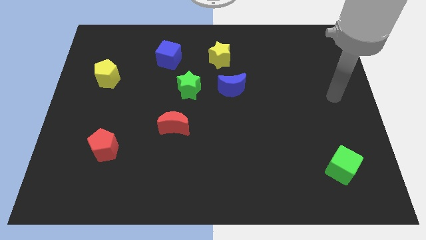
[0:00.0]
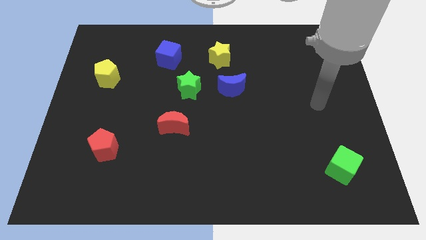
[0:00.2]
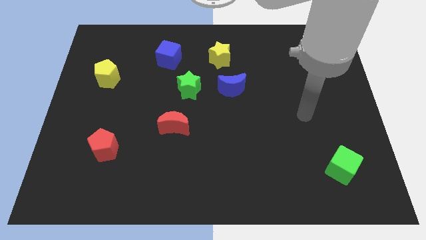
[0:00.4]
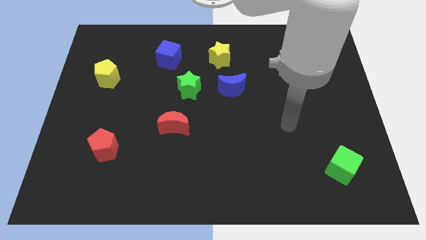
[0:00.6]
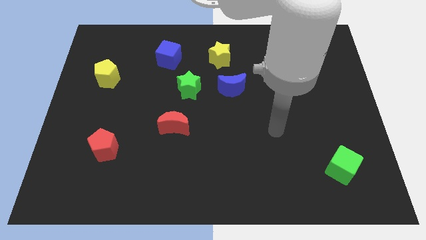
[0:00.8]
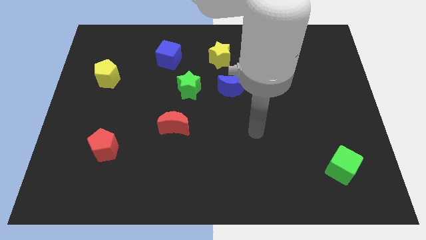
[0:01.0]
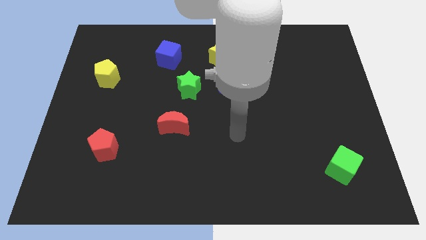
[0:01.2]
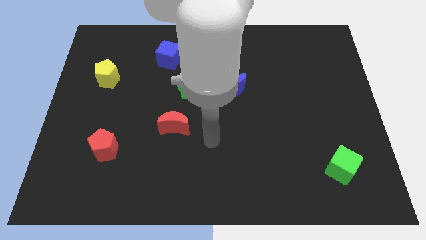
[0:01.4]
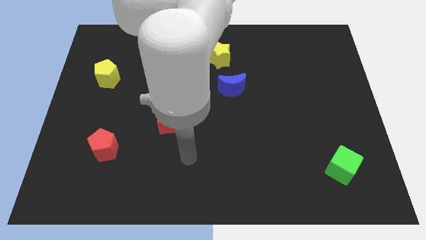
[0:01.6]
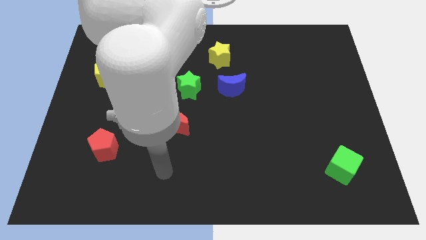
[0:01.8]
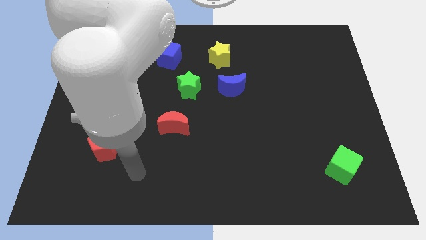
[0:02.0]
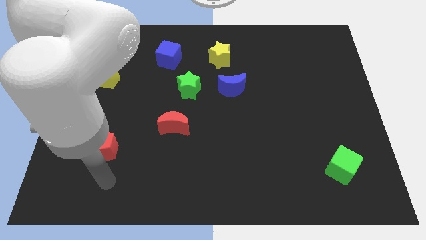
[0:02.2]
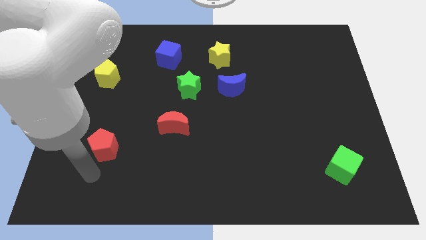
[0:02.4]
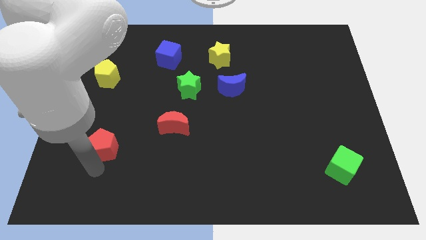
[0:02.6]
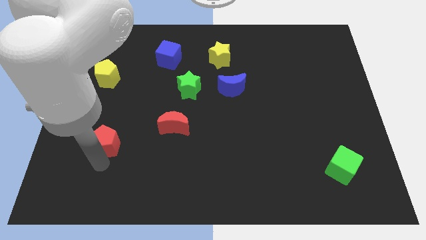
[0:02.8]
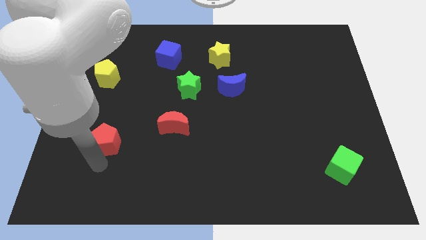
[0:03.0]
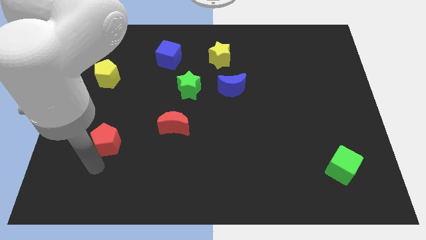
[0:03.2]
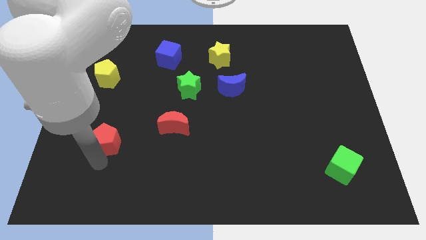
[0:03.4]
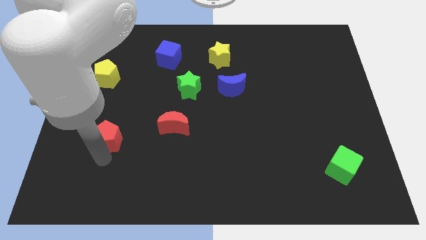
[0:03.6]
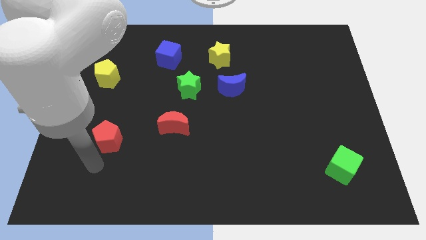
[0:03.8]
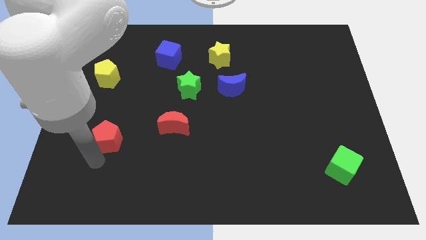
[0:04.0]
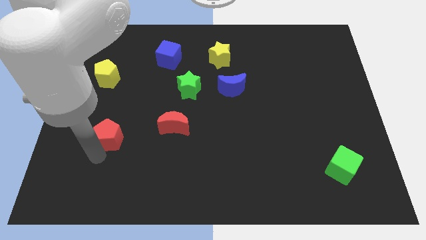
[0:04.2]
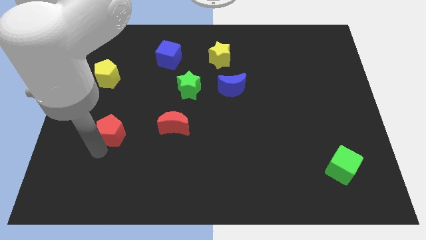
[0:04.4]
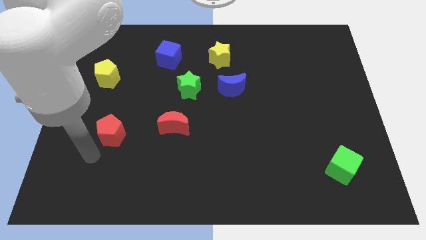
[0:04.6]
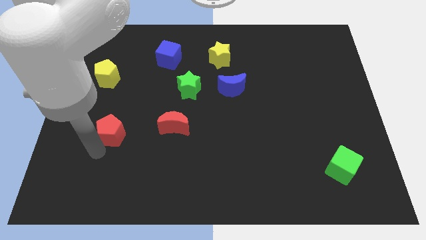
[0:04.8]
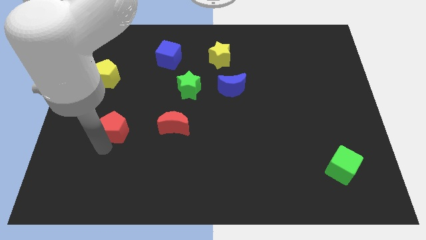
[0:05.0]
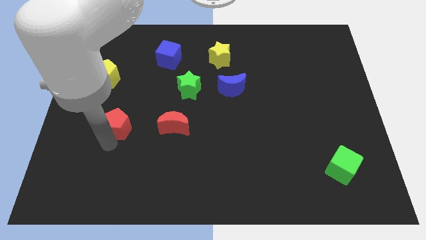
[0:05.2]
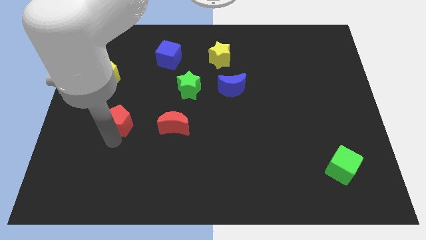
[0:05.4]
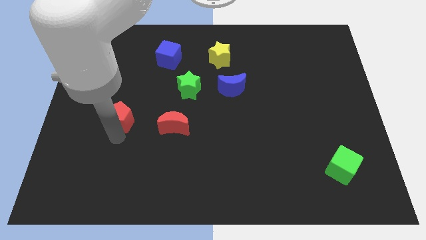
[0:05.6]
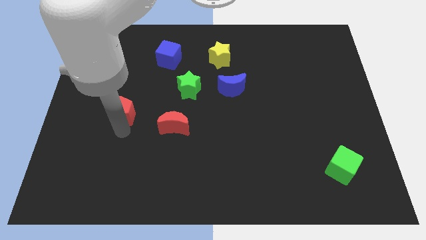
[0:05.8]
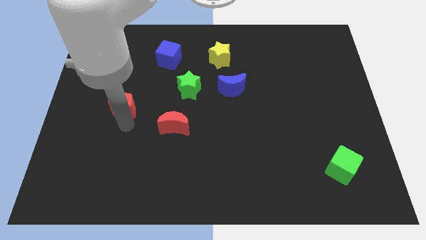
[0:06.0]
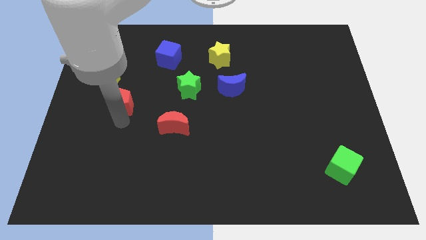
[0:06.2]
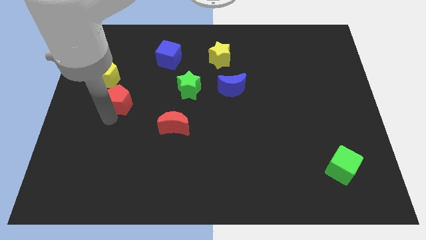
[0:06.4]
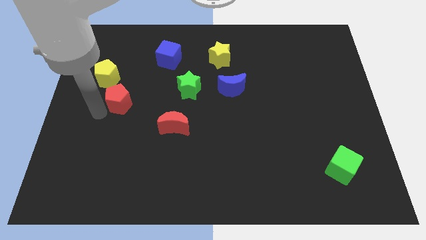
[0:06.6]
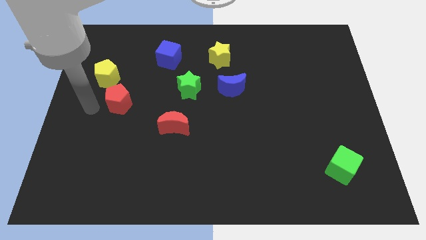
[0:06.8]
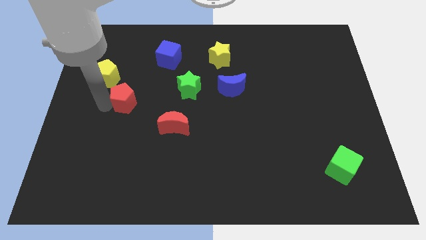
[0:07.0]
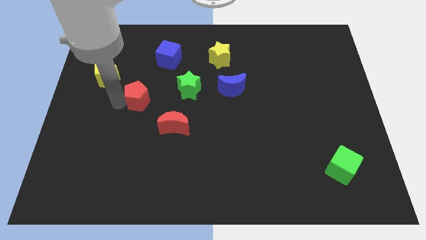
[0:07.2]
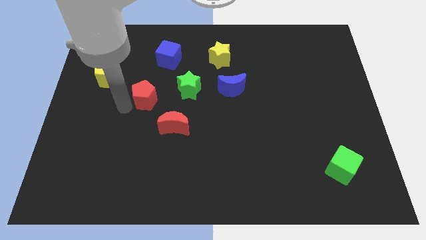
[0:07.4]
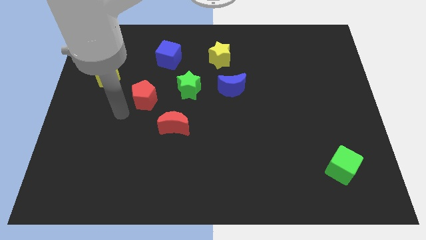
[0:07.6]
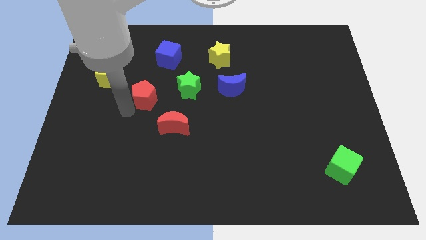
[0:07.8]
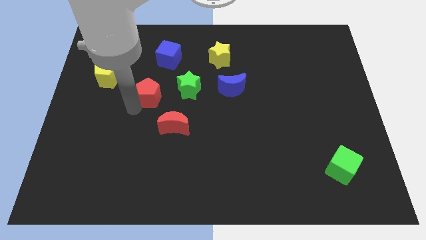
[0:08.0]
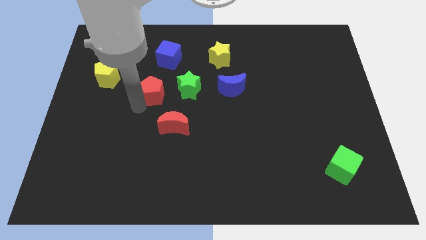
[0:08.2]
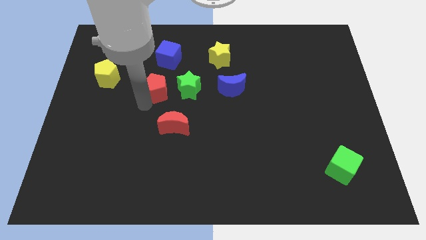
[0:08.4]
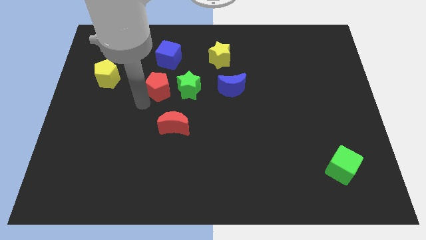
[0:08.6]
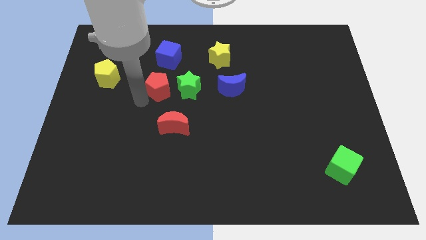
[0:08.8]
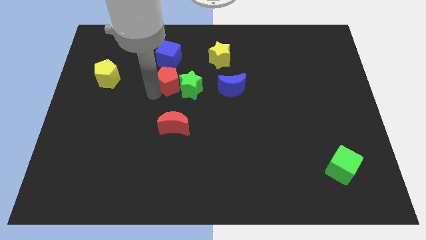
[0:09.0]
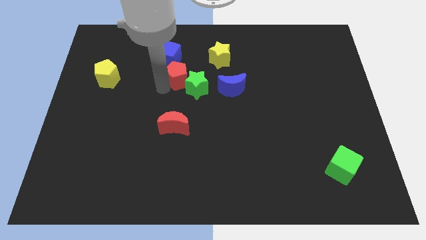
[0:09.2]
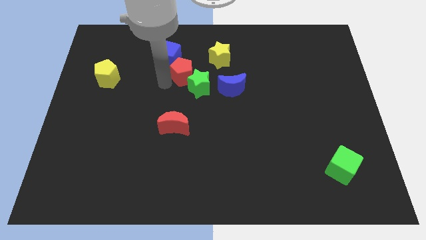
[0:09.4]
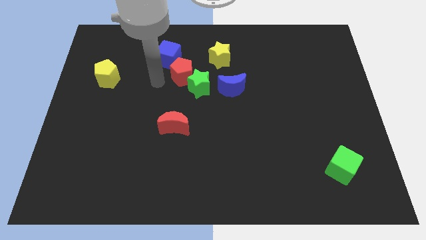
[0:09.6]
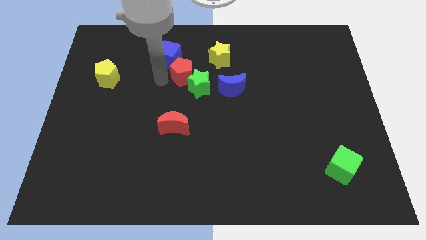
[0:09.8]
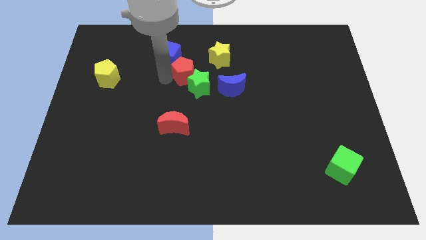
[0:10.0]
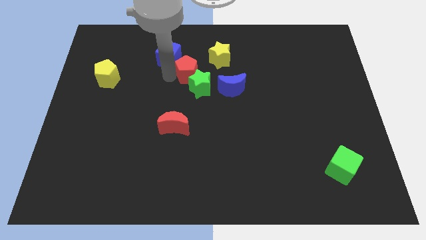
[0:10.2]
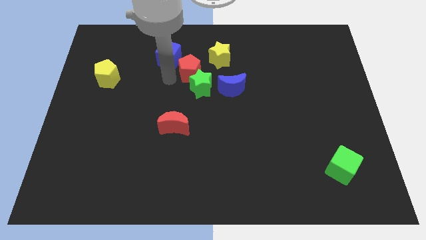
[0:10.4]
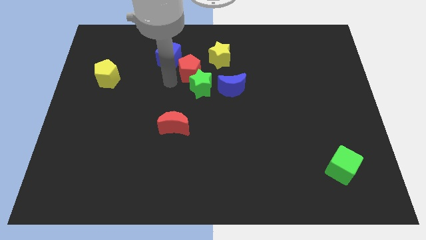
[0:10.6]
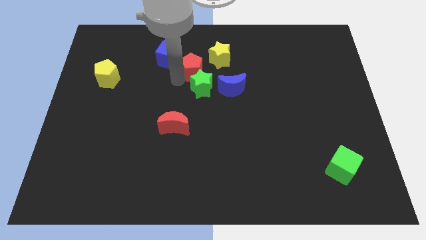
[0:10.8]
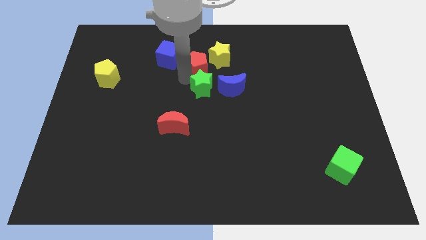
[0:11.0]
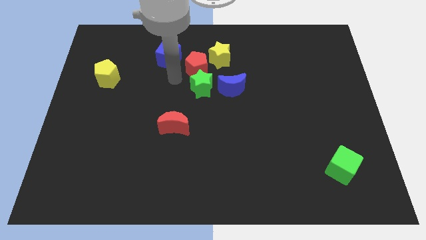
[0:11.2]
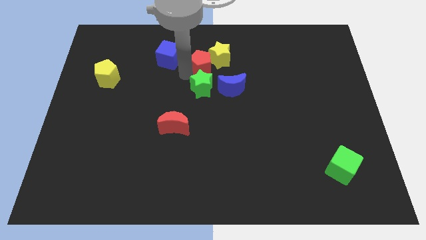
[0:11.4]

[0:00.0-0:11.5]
move the red pentagon close to the yellow star

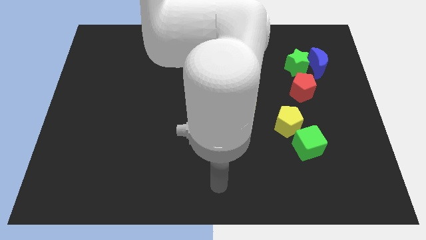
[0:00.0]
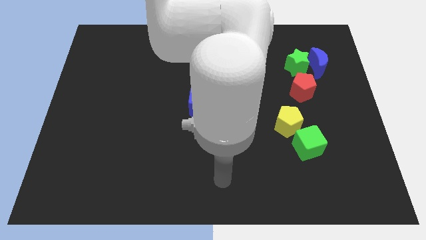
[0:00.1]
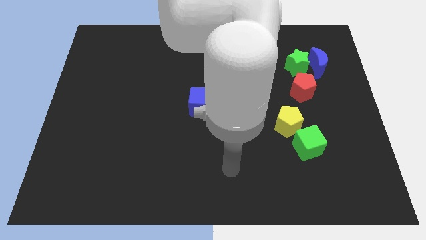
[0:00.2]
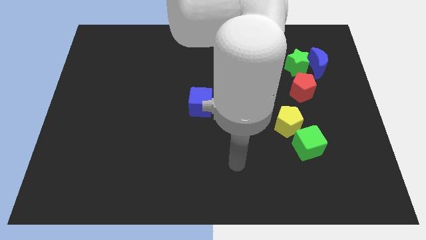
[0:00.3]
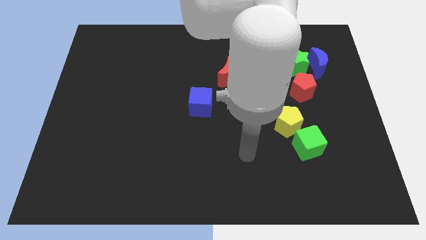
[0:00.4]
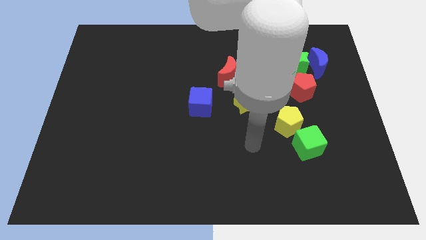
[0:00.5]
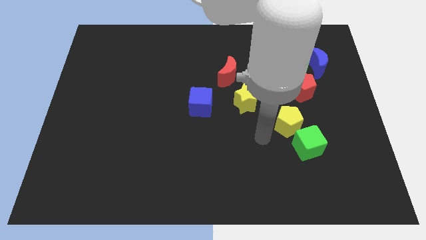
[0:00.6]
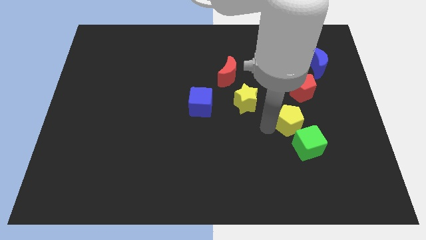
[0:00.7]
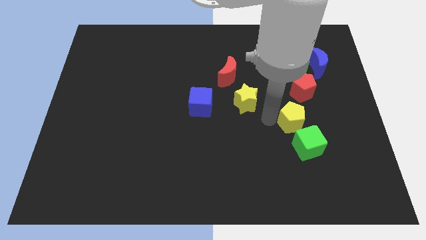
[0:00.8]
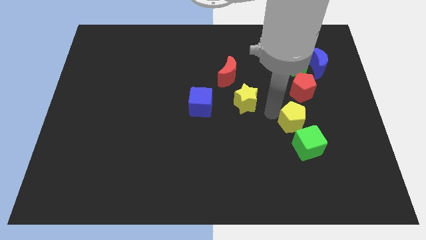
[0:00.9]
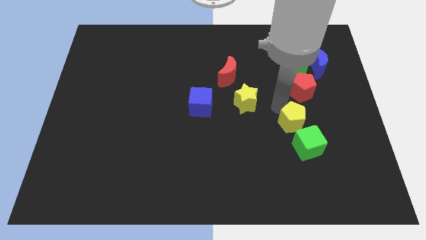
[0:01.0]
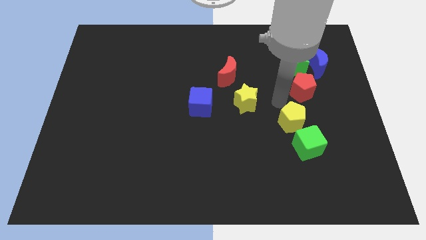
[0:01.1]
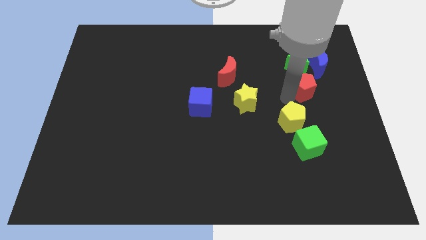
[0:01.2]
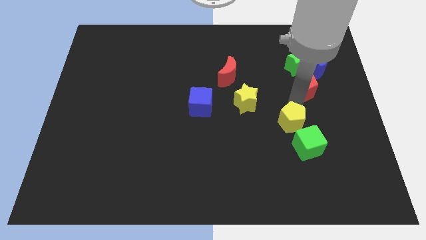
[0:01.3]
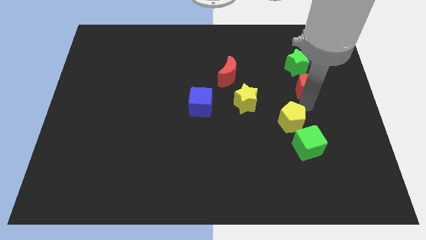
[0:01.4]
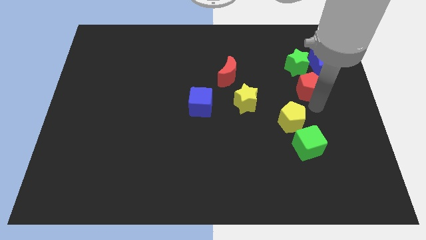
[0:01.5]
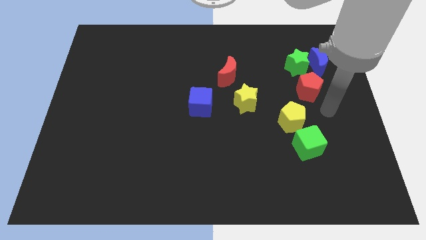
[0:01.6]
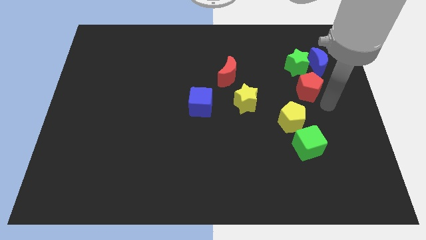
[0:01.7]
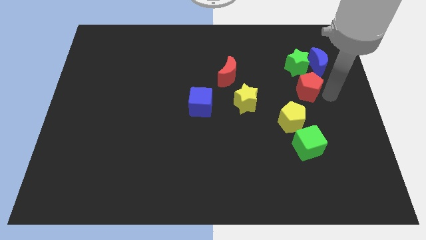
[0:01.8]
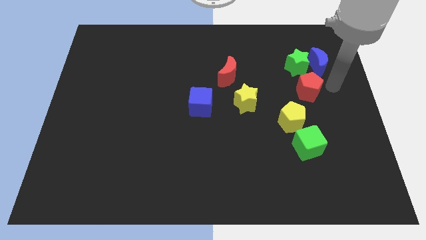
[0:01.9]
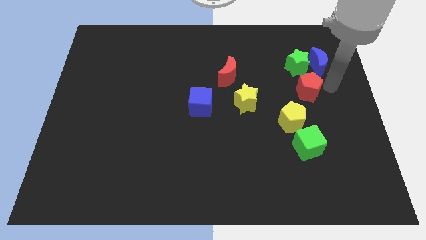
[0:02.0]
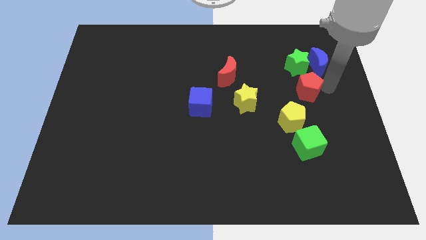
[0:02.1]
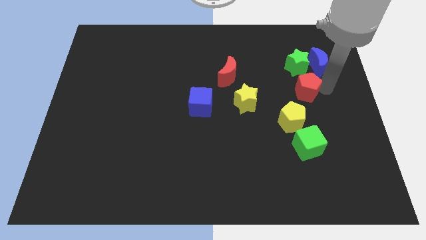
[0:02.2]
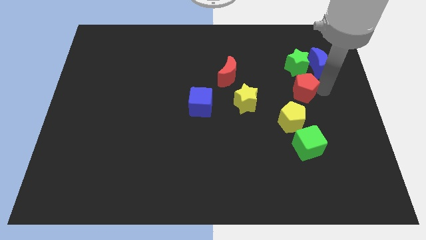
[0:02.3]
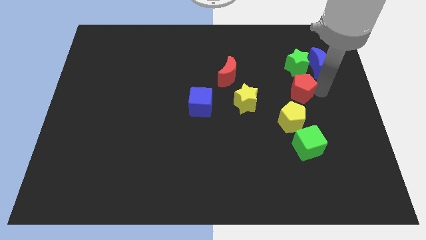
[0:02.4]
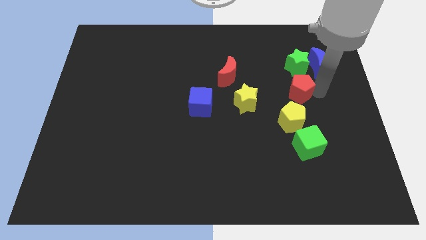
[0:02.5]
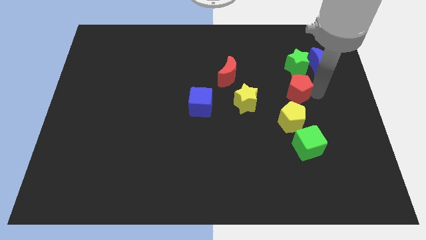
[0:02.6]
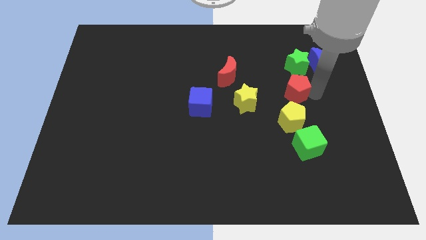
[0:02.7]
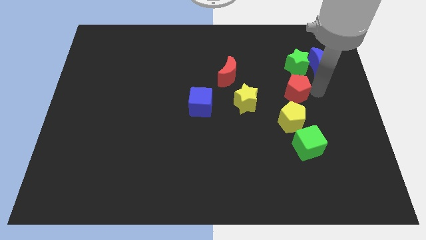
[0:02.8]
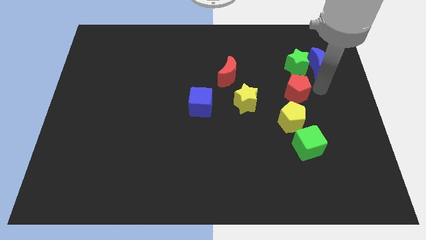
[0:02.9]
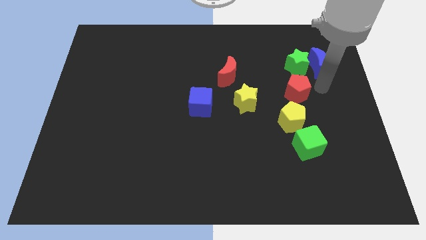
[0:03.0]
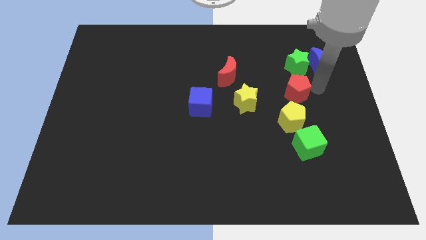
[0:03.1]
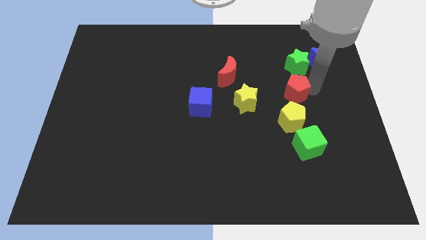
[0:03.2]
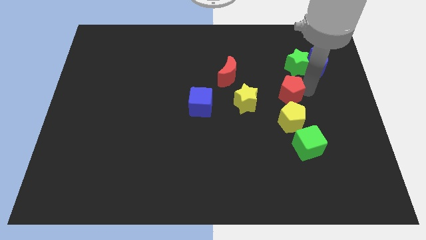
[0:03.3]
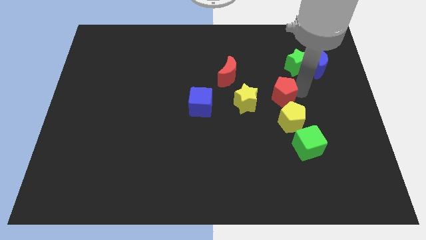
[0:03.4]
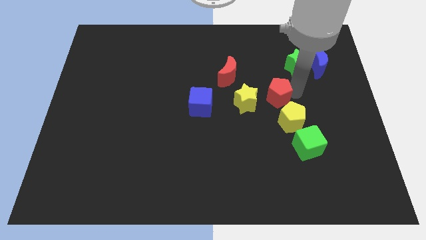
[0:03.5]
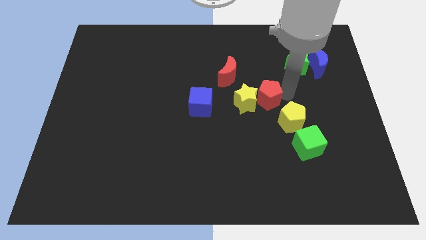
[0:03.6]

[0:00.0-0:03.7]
slide the red pentagon next to the yellow star
